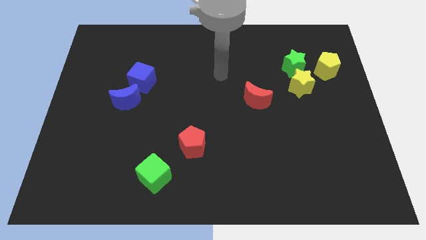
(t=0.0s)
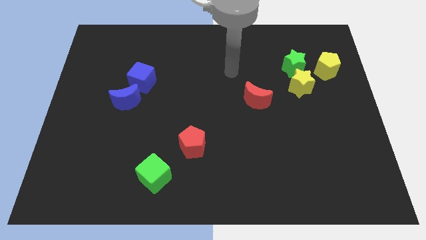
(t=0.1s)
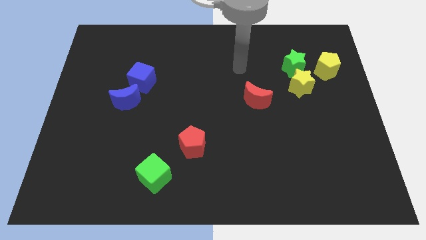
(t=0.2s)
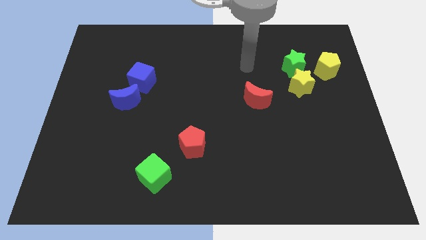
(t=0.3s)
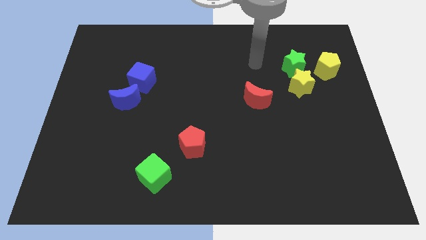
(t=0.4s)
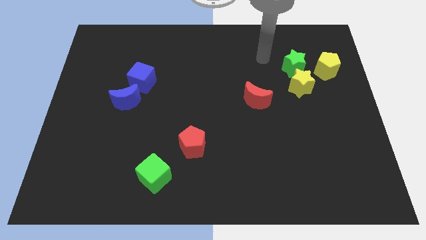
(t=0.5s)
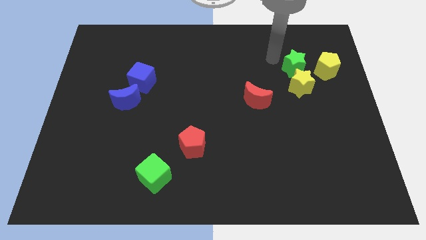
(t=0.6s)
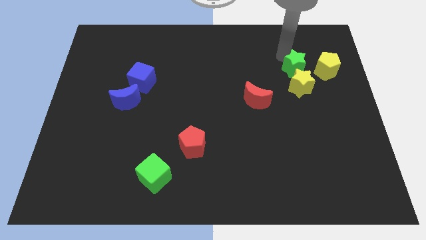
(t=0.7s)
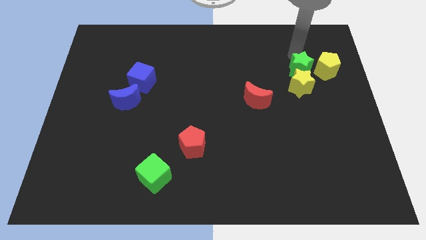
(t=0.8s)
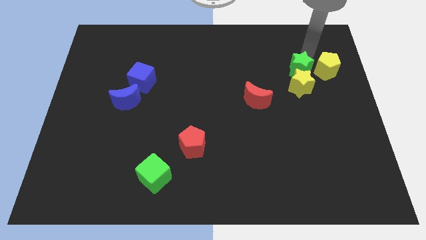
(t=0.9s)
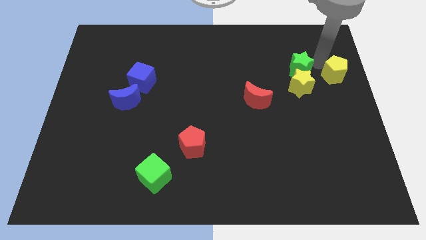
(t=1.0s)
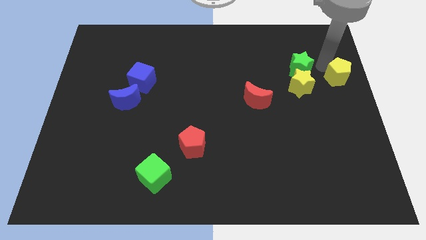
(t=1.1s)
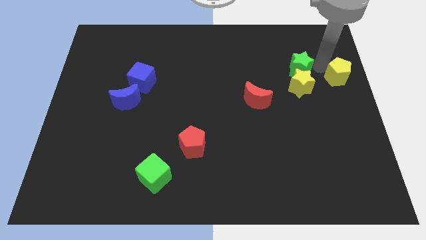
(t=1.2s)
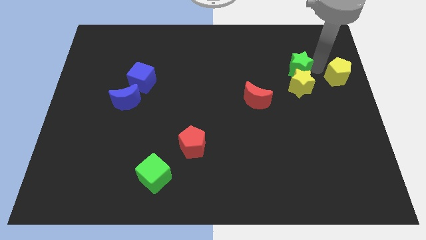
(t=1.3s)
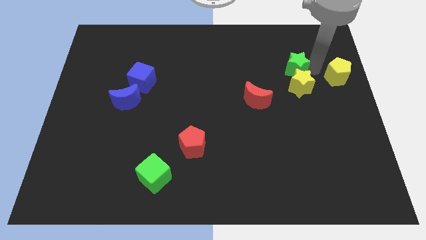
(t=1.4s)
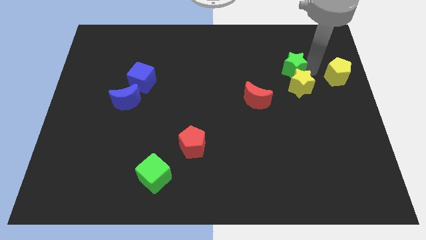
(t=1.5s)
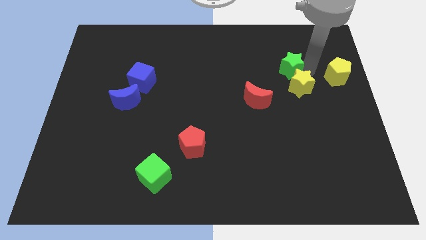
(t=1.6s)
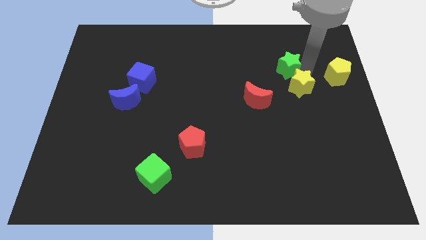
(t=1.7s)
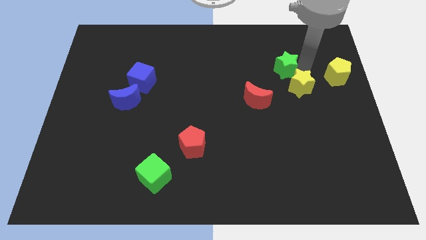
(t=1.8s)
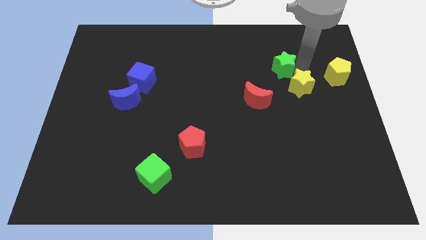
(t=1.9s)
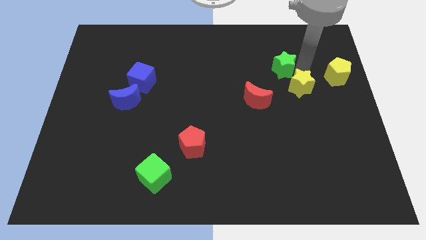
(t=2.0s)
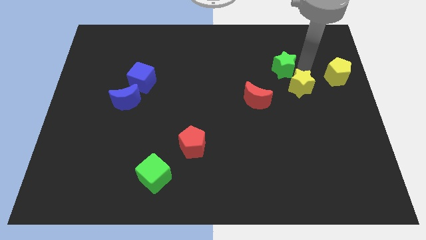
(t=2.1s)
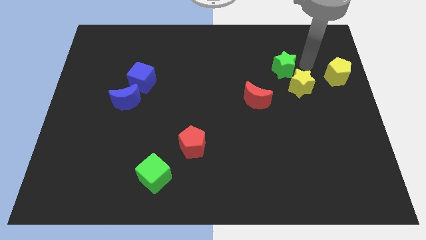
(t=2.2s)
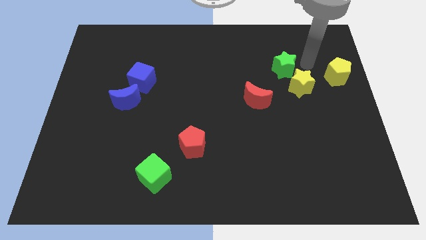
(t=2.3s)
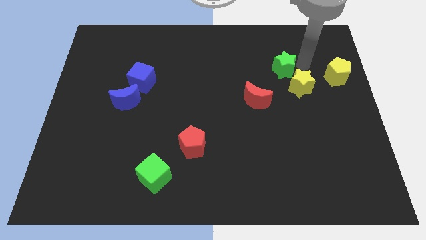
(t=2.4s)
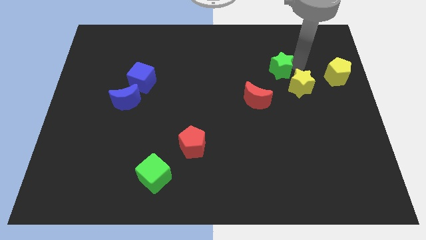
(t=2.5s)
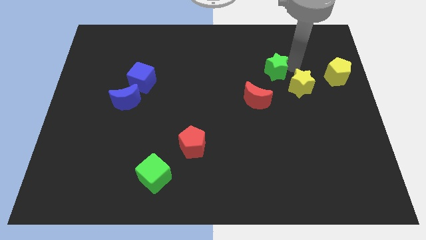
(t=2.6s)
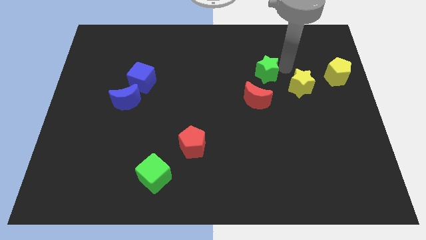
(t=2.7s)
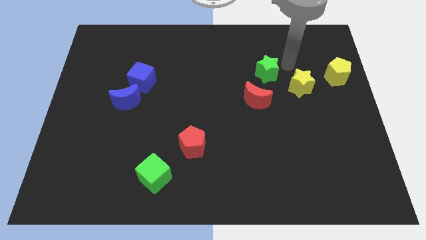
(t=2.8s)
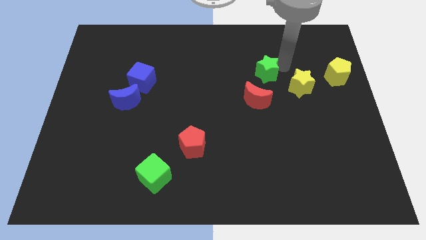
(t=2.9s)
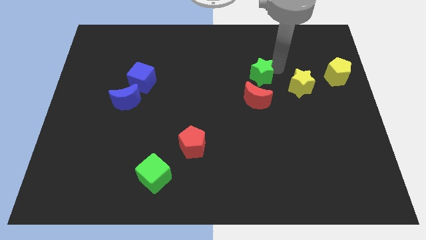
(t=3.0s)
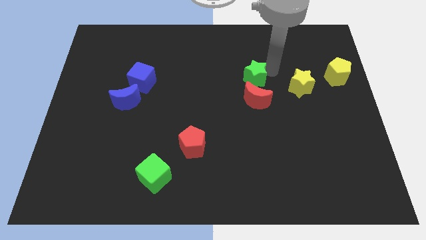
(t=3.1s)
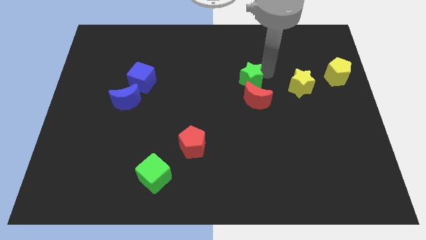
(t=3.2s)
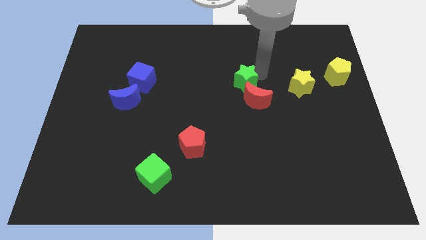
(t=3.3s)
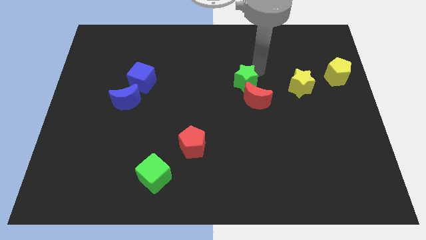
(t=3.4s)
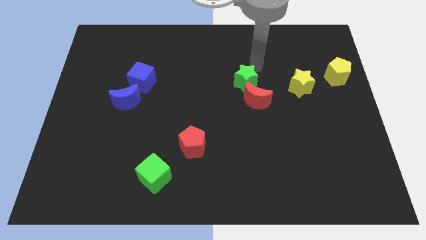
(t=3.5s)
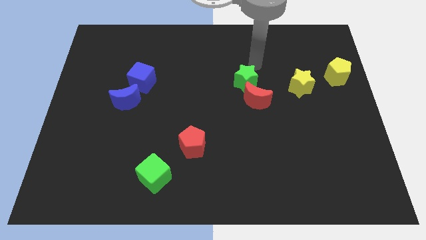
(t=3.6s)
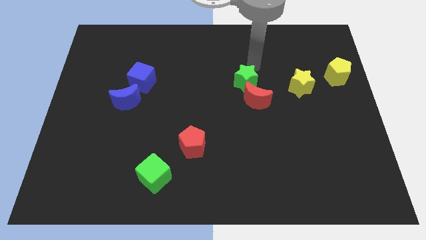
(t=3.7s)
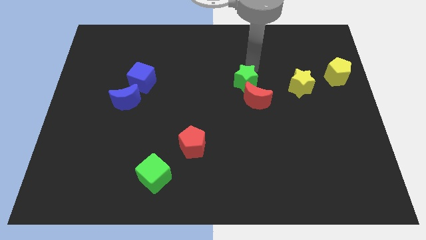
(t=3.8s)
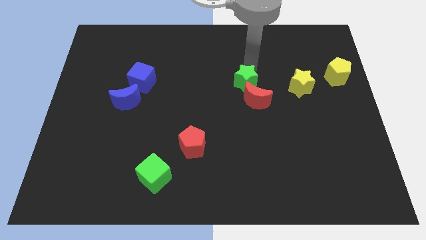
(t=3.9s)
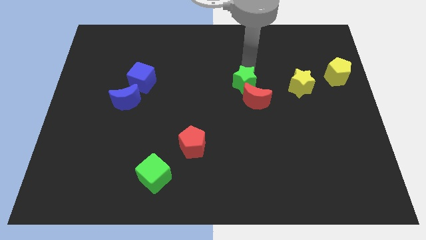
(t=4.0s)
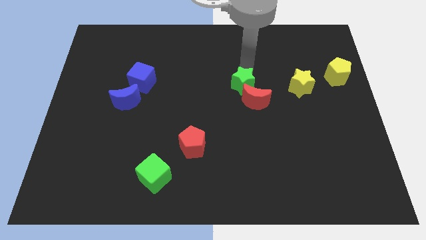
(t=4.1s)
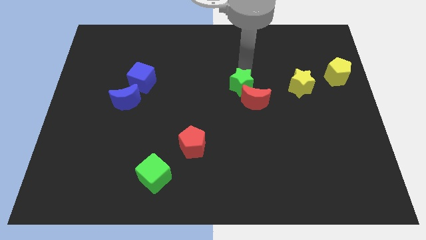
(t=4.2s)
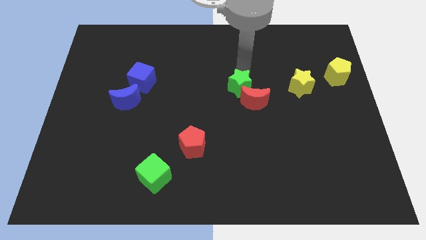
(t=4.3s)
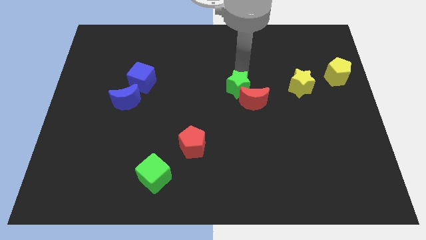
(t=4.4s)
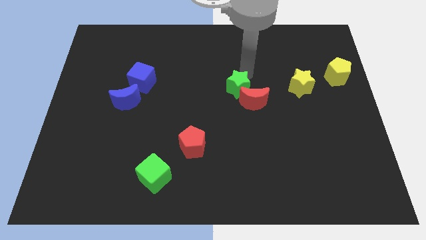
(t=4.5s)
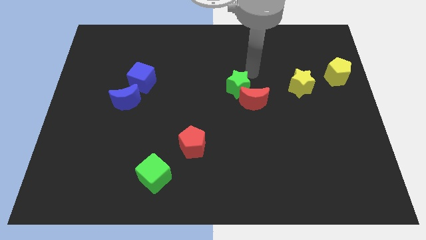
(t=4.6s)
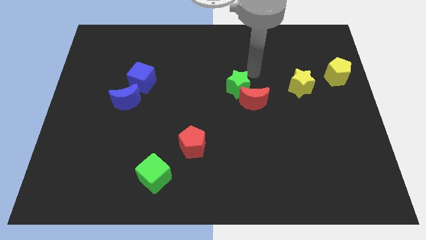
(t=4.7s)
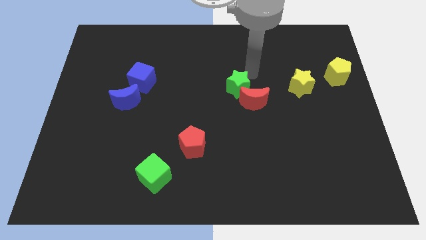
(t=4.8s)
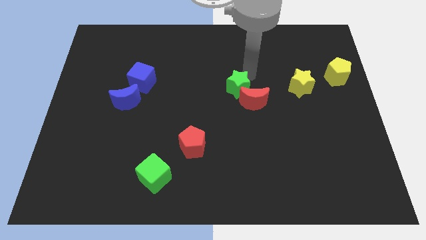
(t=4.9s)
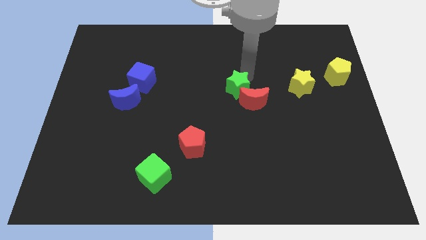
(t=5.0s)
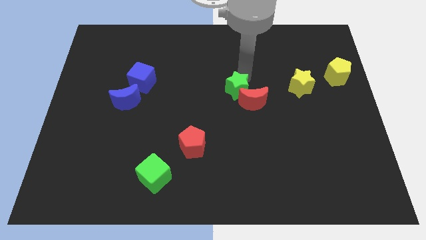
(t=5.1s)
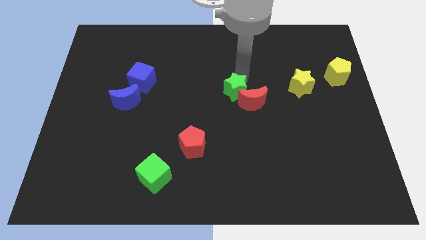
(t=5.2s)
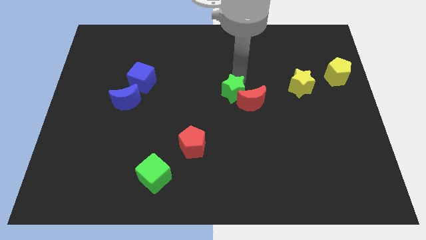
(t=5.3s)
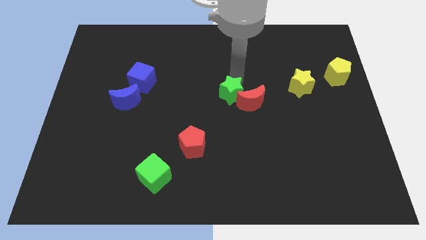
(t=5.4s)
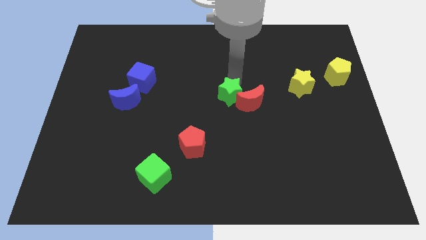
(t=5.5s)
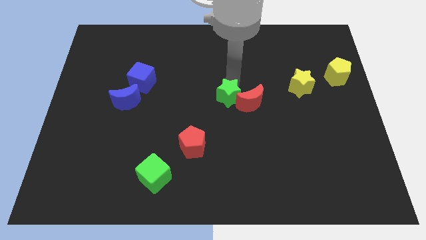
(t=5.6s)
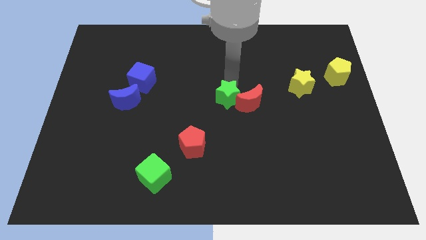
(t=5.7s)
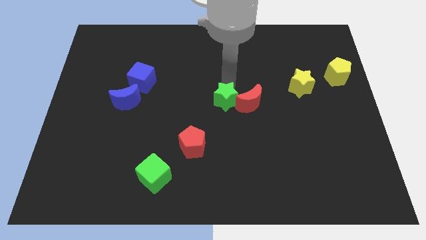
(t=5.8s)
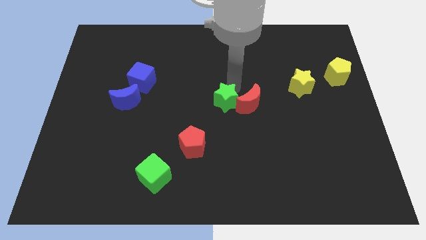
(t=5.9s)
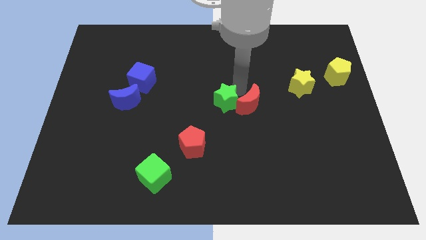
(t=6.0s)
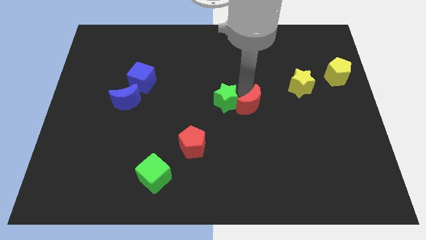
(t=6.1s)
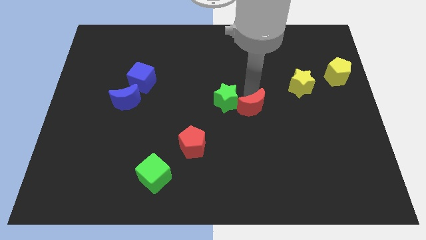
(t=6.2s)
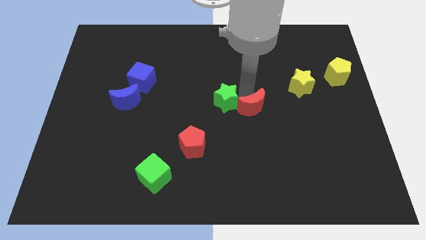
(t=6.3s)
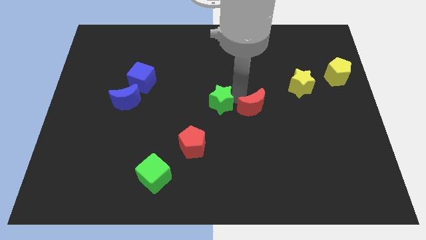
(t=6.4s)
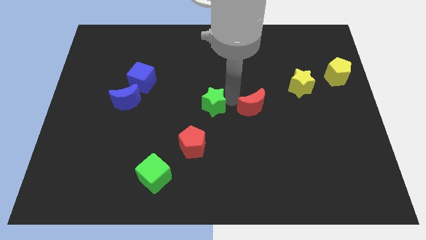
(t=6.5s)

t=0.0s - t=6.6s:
push the green star to the top of the red pentagon

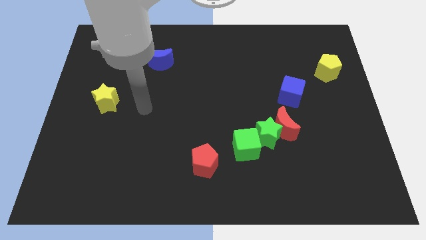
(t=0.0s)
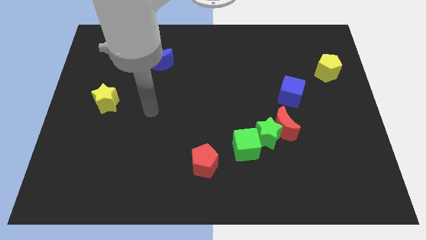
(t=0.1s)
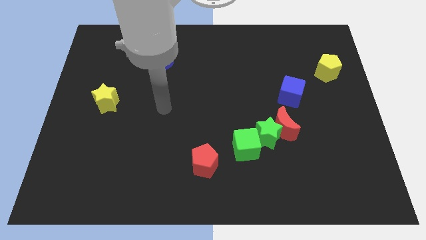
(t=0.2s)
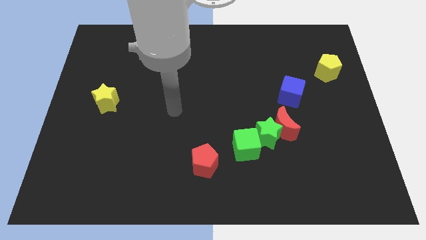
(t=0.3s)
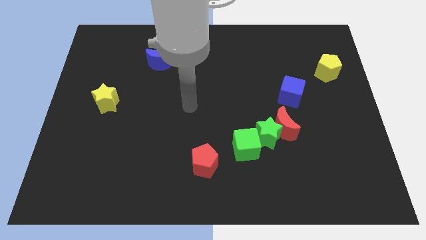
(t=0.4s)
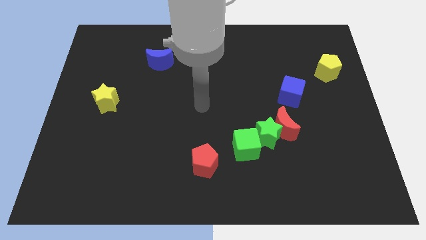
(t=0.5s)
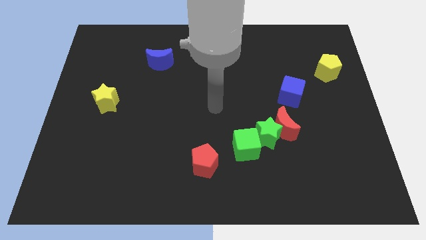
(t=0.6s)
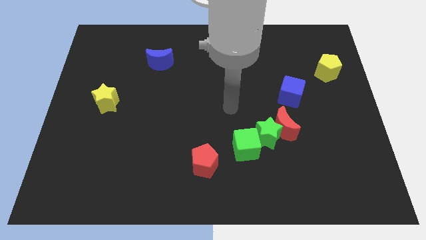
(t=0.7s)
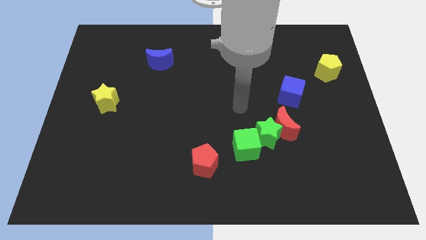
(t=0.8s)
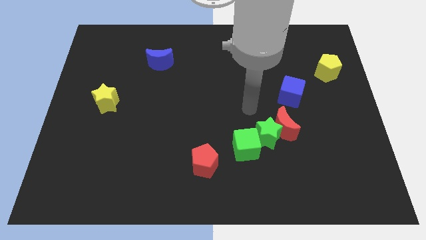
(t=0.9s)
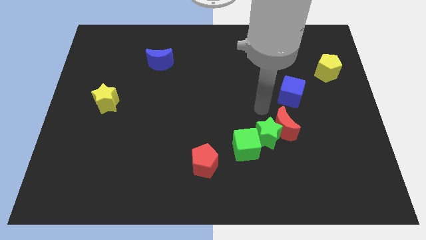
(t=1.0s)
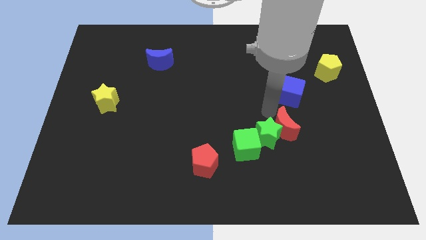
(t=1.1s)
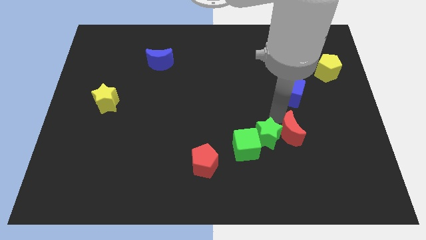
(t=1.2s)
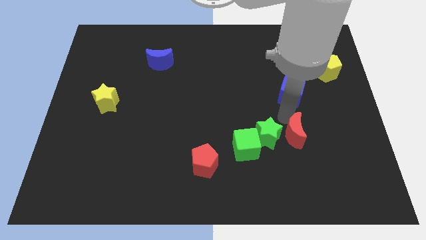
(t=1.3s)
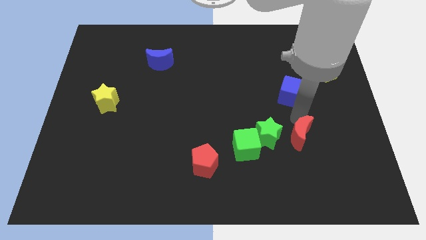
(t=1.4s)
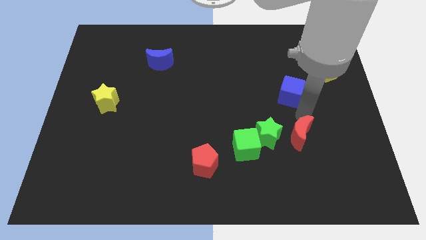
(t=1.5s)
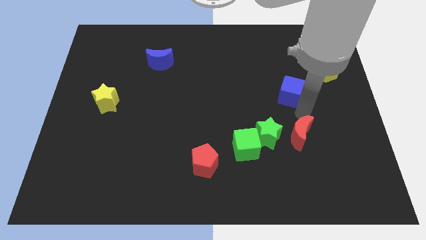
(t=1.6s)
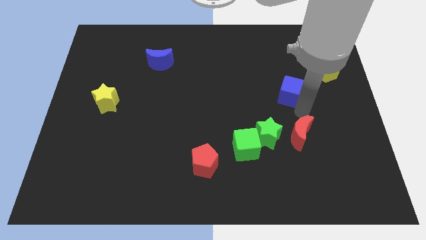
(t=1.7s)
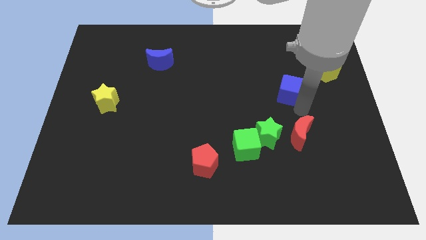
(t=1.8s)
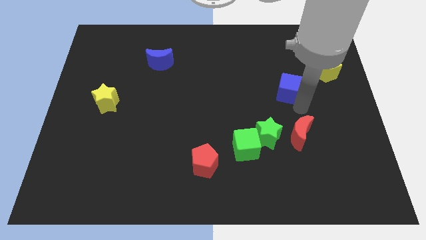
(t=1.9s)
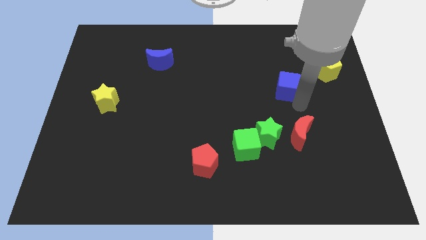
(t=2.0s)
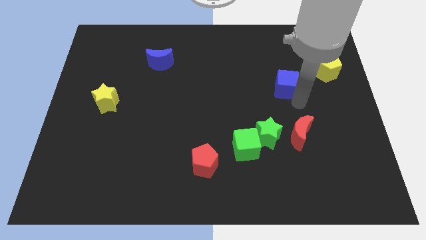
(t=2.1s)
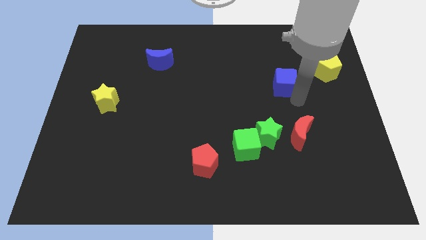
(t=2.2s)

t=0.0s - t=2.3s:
push the blue cube left of the yellow pentagon
